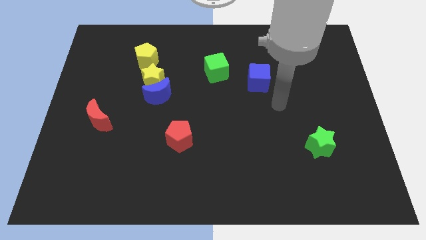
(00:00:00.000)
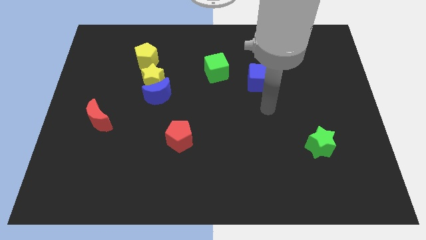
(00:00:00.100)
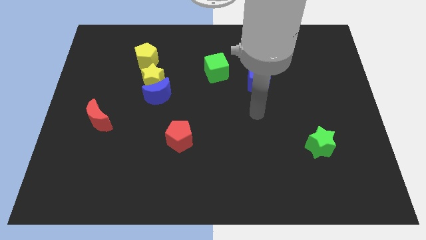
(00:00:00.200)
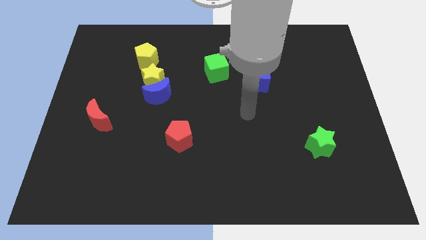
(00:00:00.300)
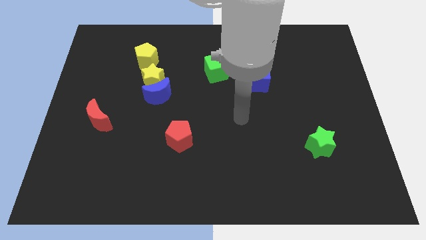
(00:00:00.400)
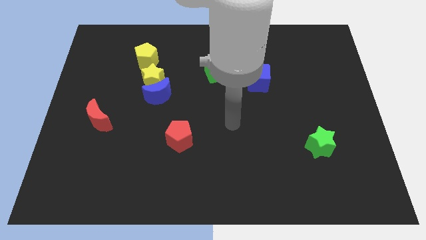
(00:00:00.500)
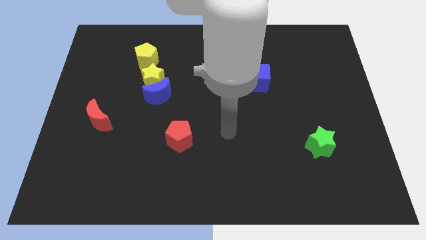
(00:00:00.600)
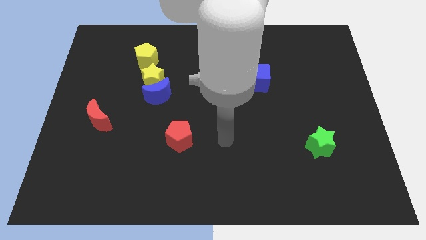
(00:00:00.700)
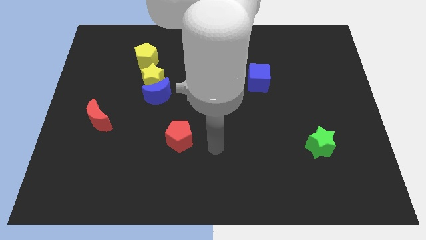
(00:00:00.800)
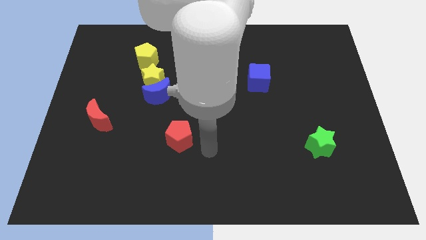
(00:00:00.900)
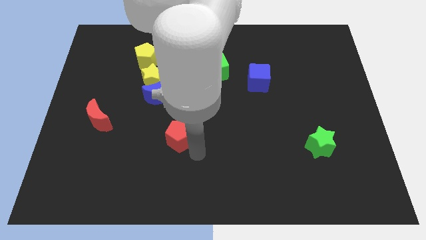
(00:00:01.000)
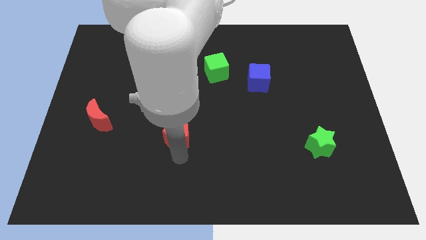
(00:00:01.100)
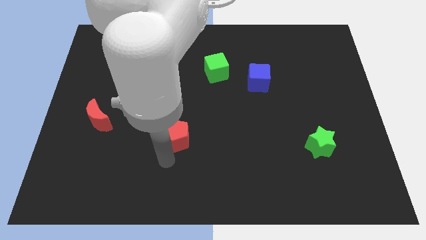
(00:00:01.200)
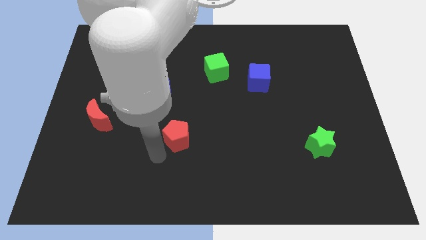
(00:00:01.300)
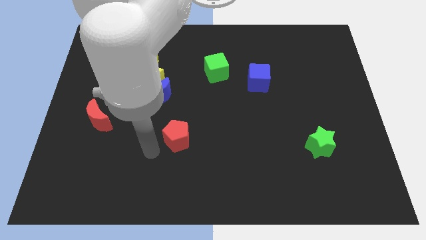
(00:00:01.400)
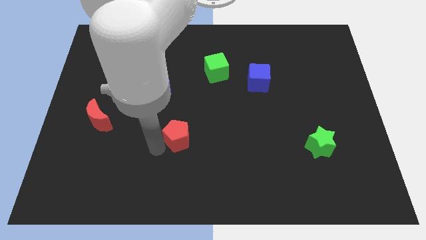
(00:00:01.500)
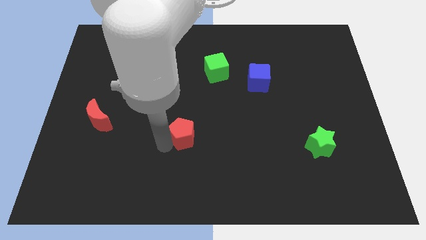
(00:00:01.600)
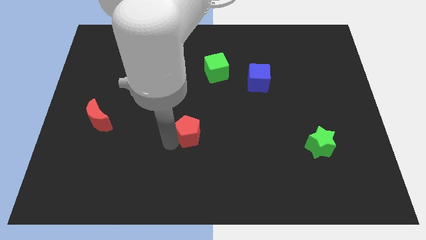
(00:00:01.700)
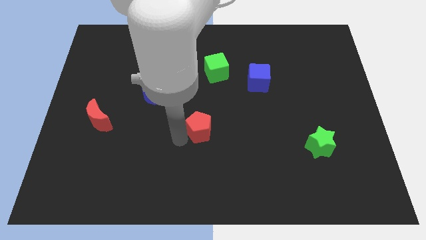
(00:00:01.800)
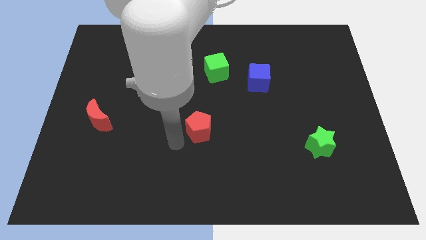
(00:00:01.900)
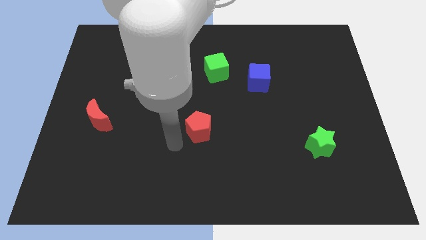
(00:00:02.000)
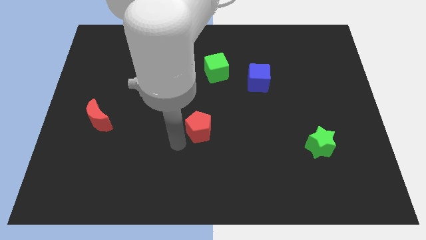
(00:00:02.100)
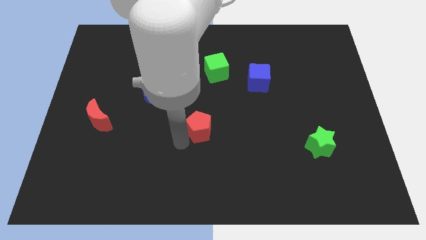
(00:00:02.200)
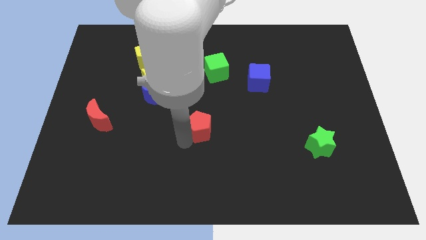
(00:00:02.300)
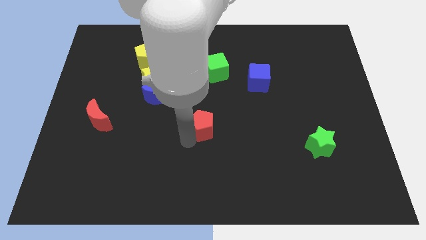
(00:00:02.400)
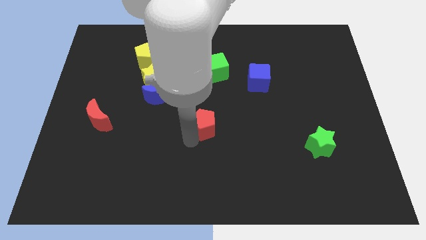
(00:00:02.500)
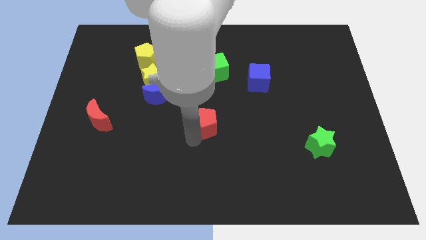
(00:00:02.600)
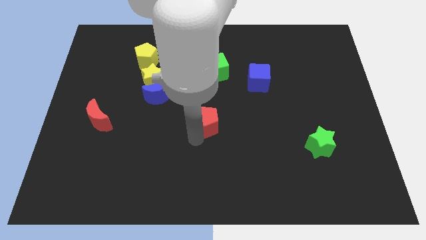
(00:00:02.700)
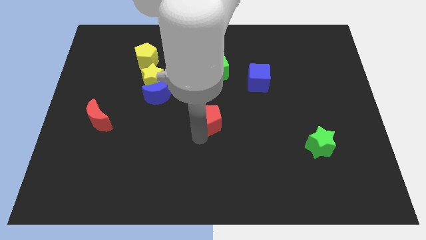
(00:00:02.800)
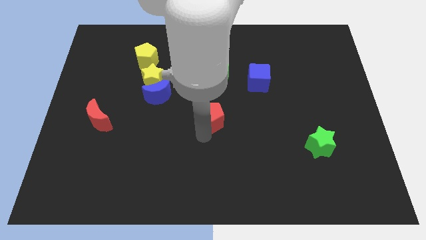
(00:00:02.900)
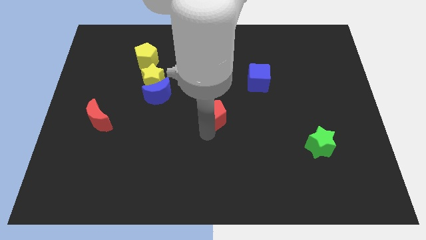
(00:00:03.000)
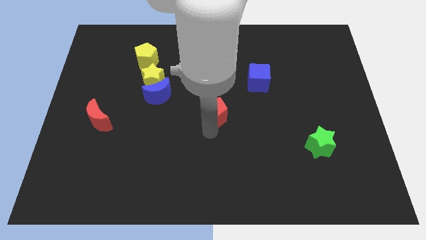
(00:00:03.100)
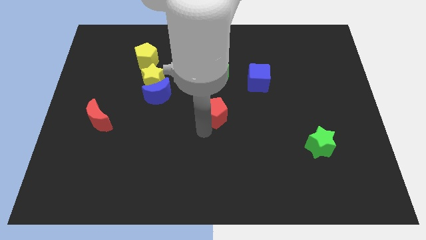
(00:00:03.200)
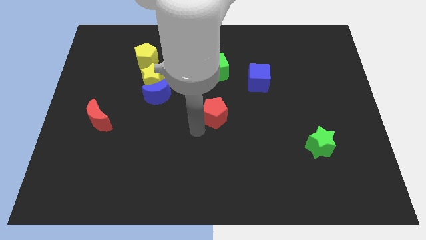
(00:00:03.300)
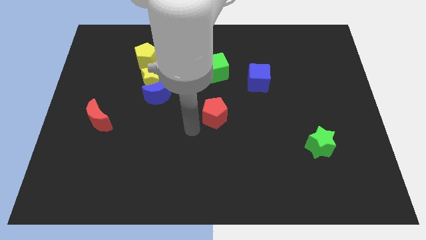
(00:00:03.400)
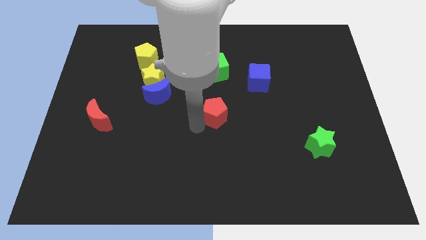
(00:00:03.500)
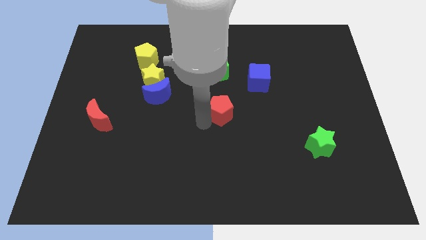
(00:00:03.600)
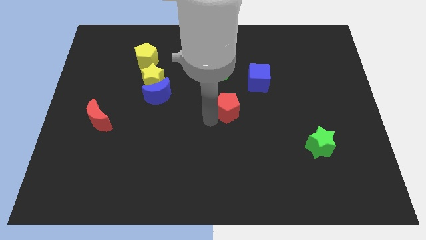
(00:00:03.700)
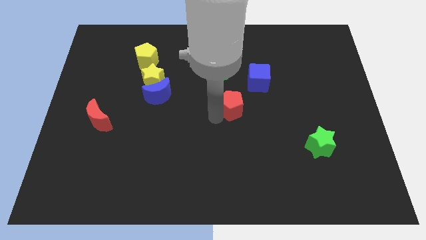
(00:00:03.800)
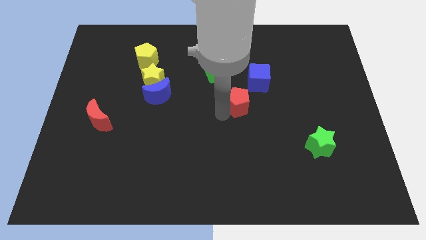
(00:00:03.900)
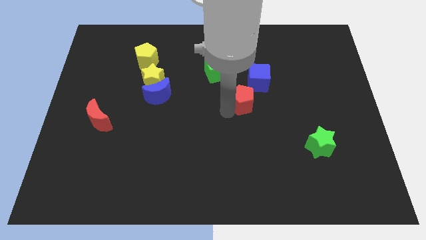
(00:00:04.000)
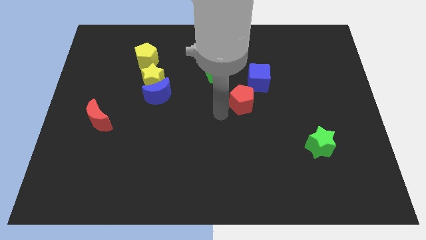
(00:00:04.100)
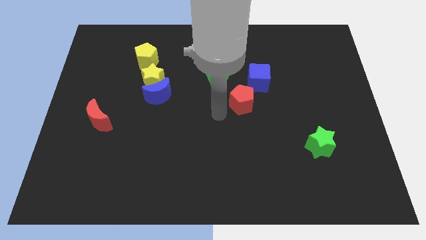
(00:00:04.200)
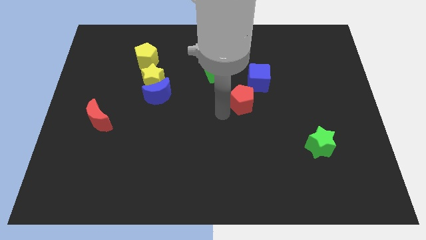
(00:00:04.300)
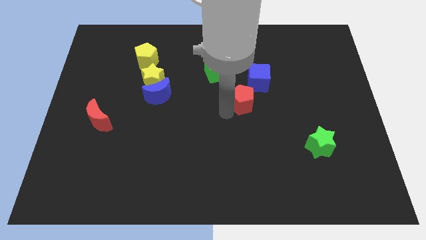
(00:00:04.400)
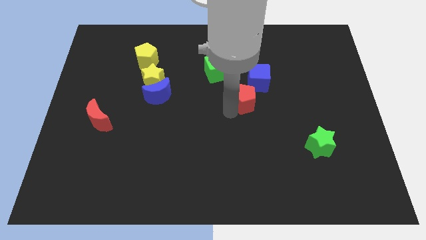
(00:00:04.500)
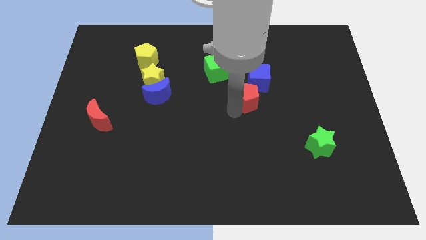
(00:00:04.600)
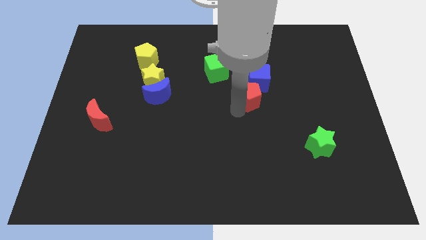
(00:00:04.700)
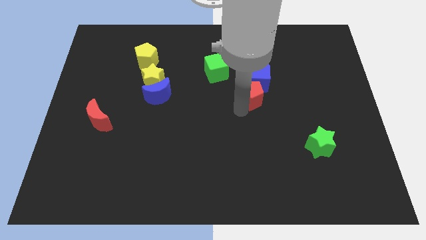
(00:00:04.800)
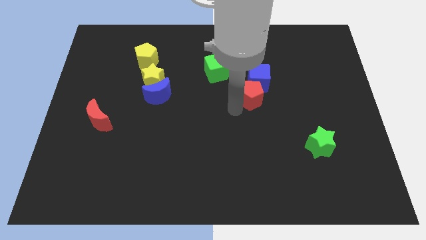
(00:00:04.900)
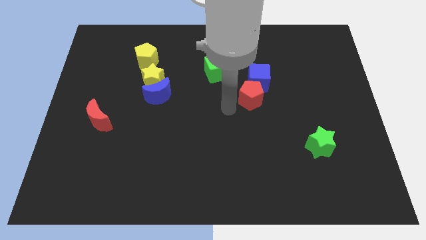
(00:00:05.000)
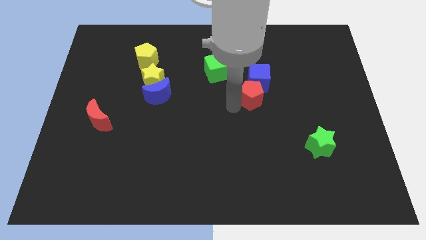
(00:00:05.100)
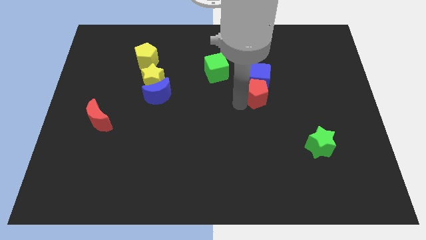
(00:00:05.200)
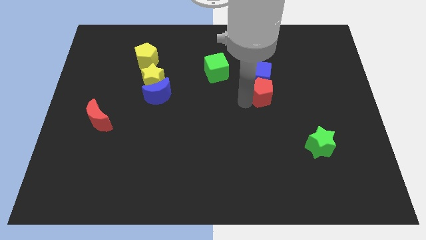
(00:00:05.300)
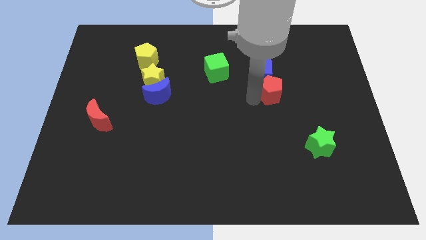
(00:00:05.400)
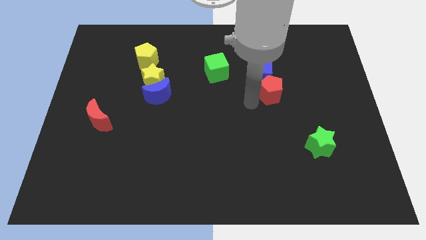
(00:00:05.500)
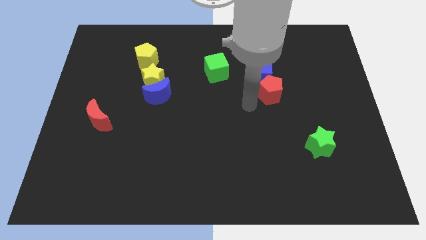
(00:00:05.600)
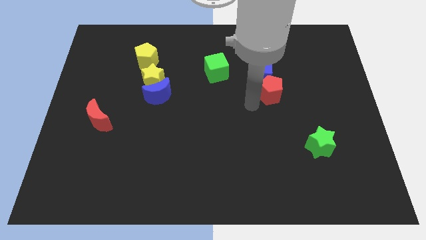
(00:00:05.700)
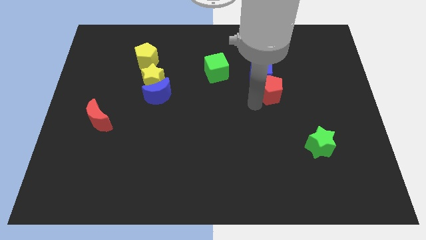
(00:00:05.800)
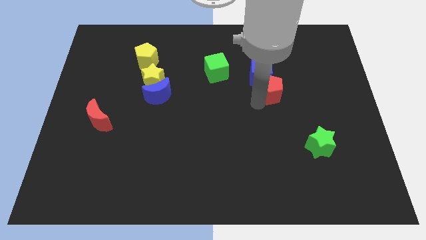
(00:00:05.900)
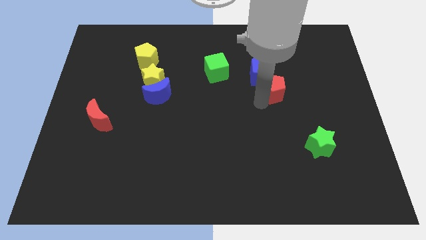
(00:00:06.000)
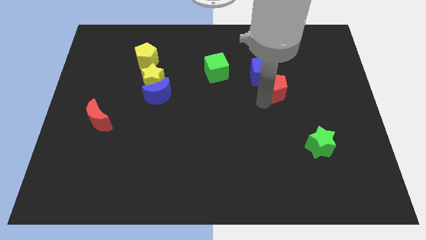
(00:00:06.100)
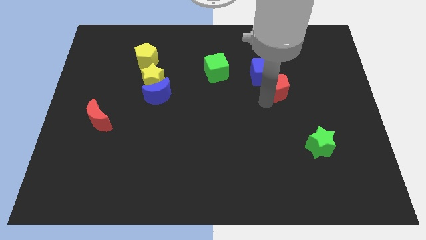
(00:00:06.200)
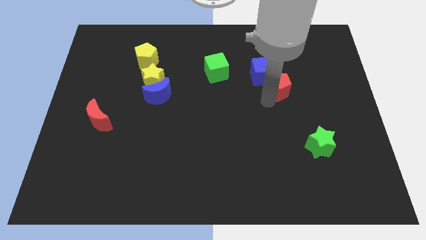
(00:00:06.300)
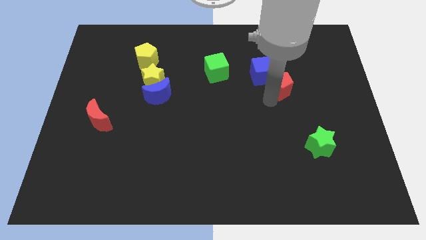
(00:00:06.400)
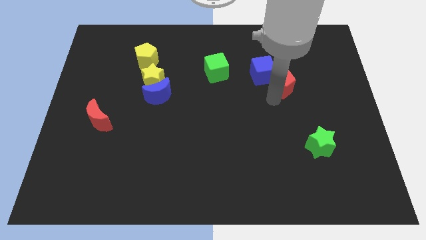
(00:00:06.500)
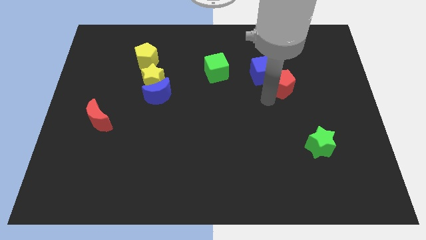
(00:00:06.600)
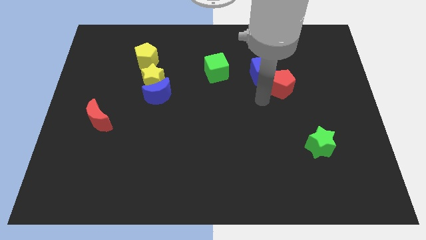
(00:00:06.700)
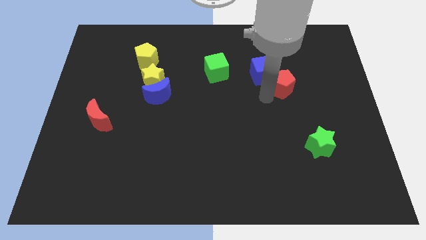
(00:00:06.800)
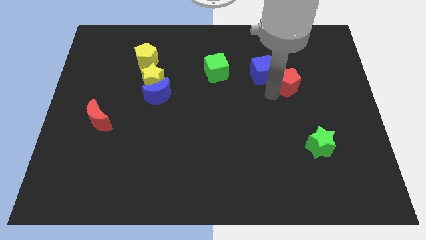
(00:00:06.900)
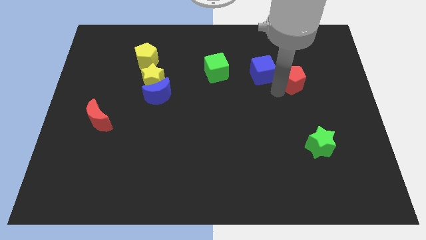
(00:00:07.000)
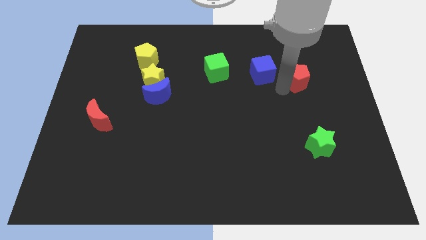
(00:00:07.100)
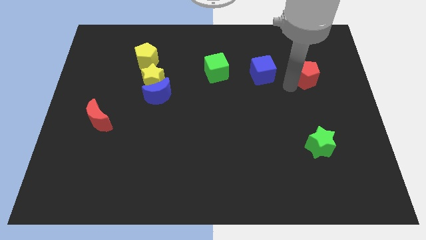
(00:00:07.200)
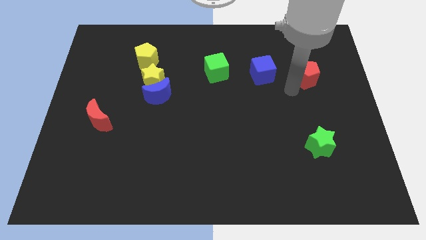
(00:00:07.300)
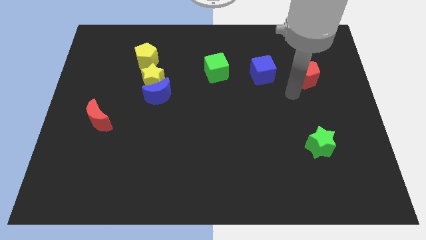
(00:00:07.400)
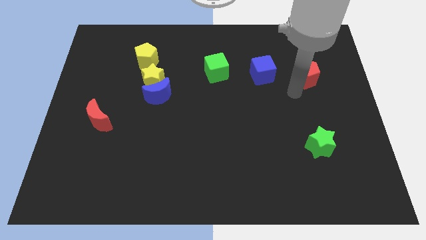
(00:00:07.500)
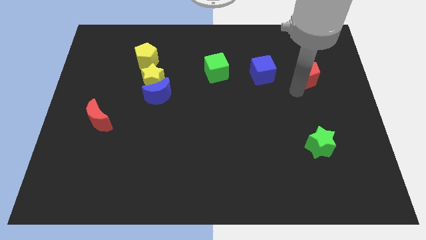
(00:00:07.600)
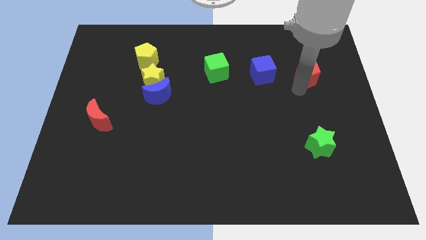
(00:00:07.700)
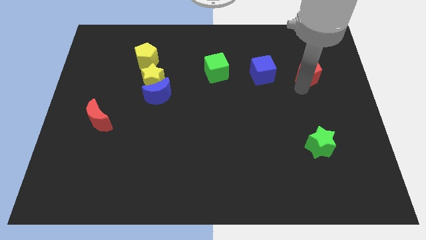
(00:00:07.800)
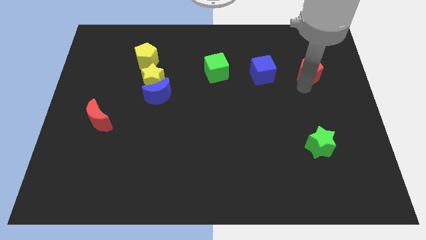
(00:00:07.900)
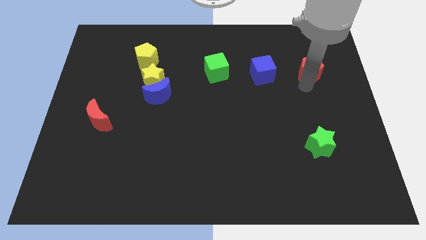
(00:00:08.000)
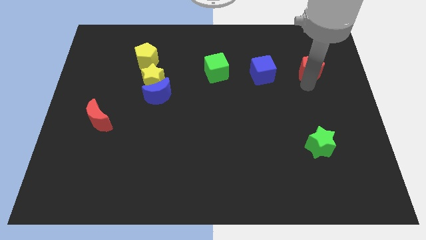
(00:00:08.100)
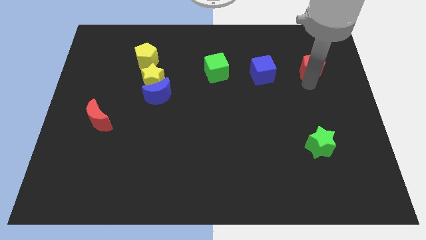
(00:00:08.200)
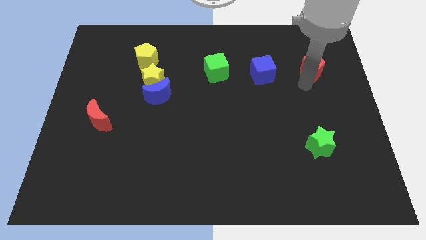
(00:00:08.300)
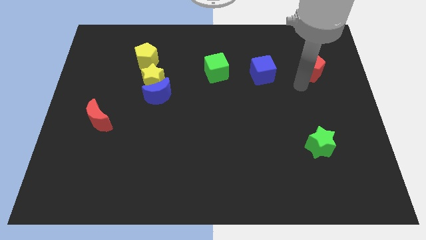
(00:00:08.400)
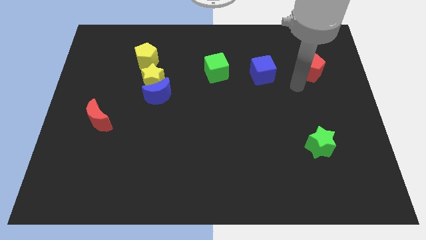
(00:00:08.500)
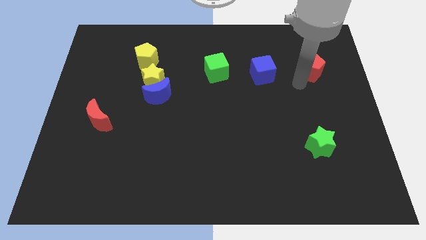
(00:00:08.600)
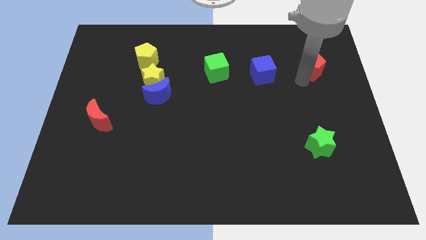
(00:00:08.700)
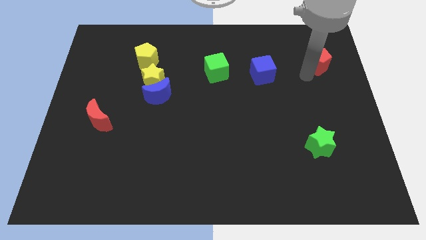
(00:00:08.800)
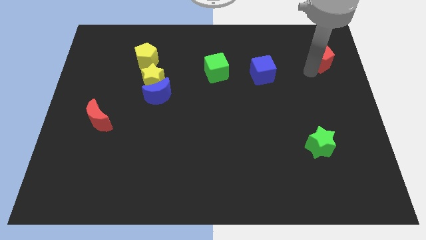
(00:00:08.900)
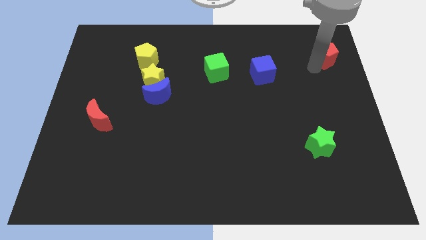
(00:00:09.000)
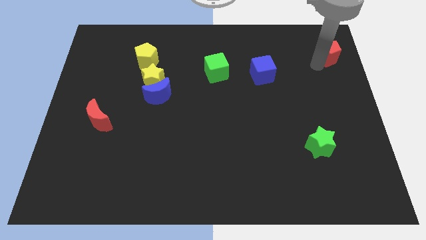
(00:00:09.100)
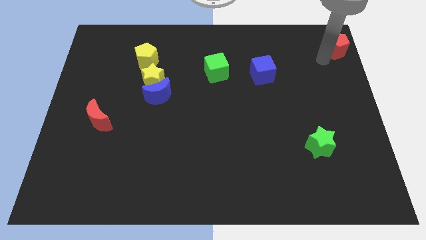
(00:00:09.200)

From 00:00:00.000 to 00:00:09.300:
move the red pentagon to the top right
